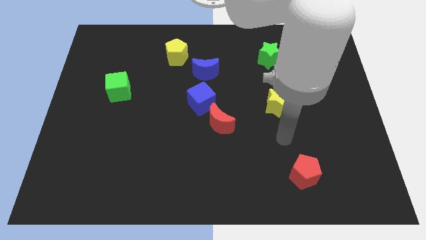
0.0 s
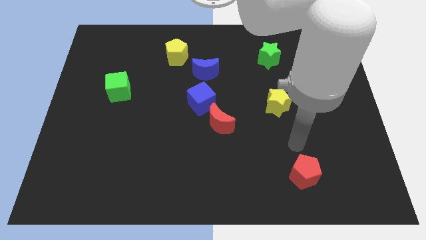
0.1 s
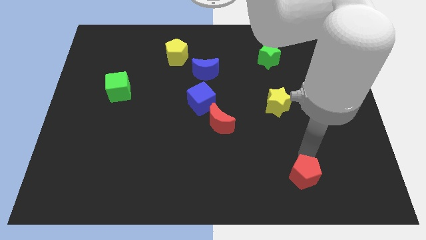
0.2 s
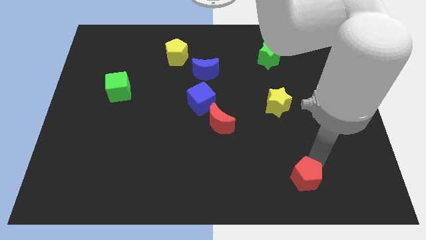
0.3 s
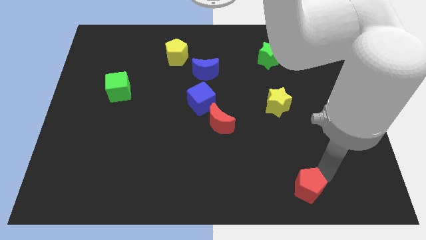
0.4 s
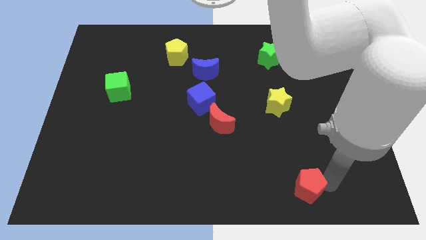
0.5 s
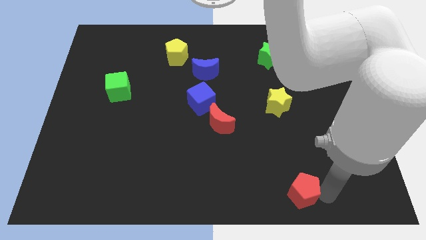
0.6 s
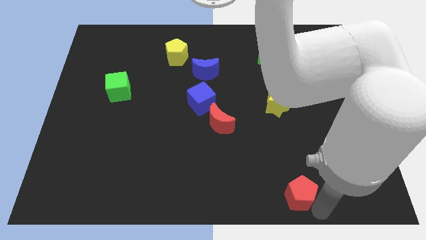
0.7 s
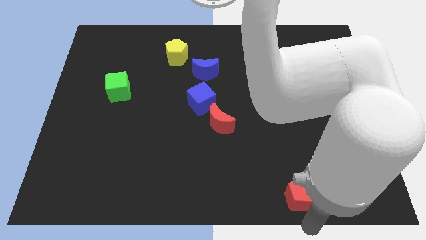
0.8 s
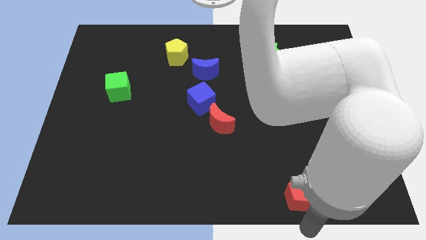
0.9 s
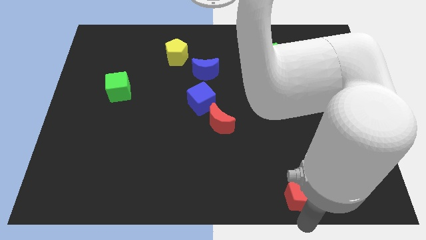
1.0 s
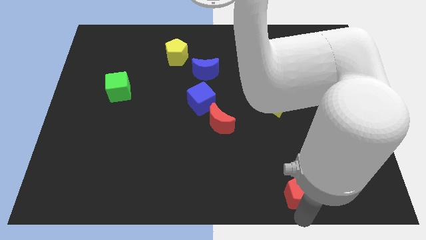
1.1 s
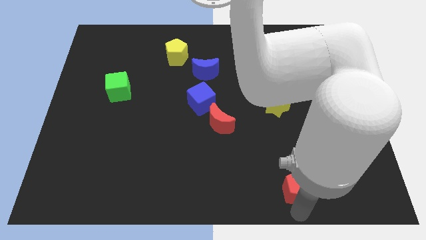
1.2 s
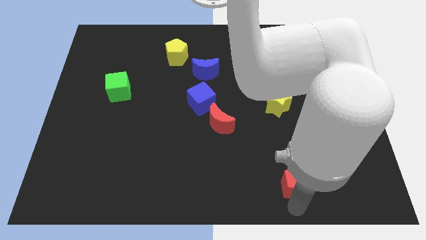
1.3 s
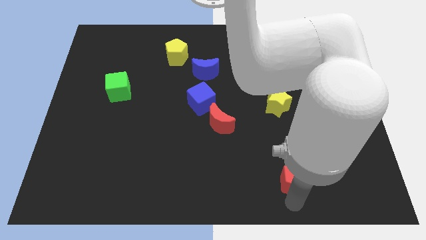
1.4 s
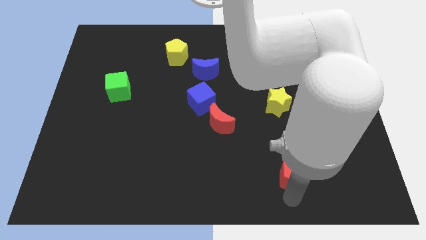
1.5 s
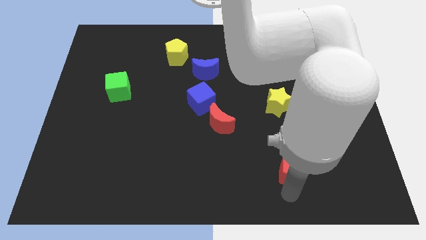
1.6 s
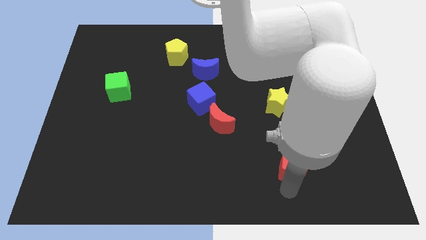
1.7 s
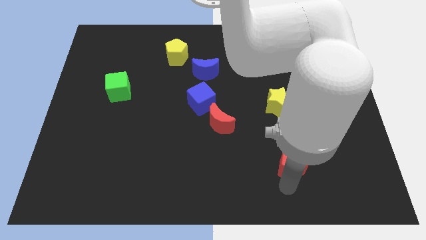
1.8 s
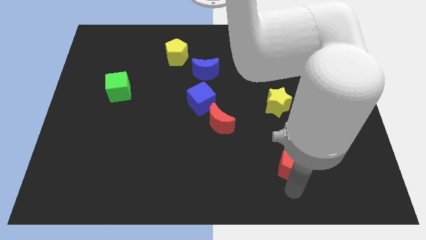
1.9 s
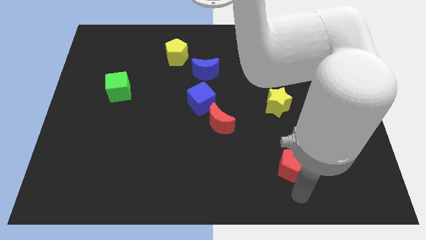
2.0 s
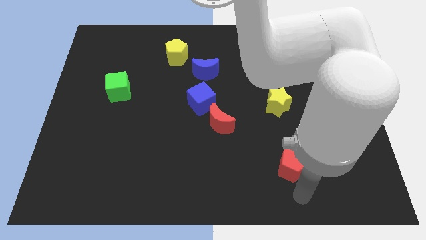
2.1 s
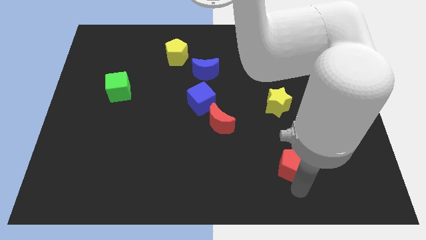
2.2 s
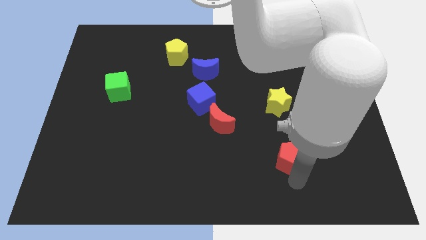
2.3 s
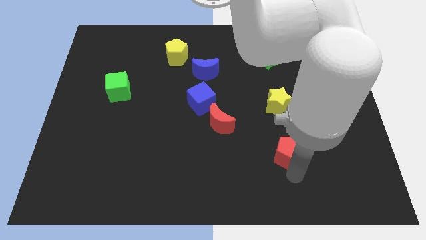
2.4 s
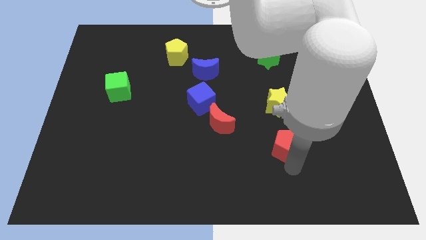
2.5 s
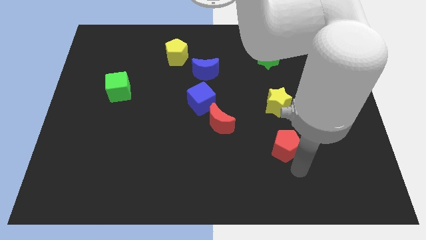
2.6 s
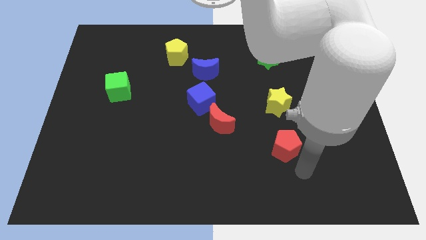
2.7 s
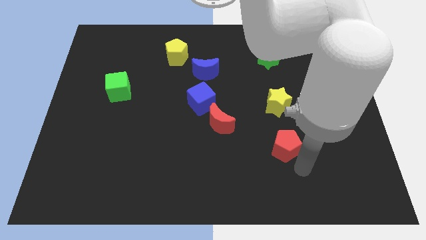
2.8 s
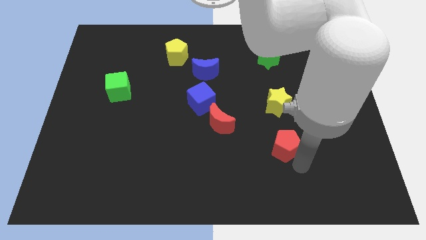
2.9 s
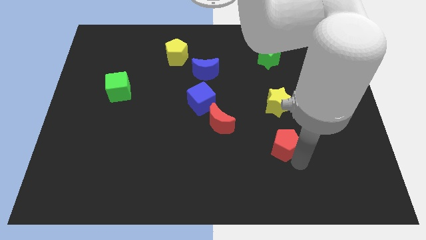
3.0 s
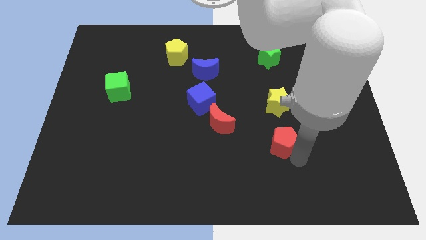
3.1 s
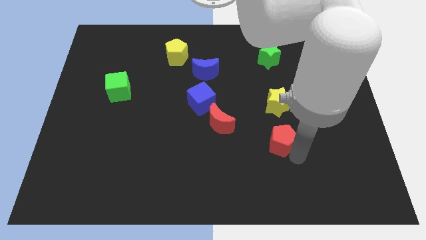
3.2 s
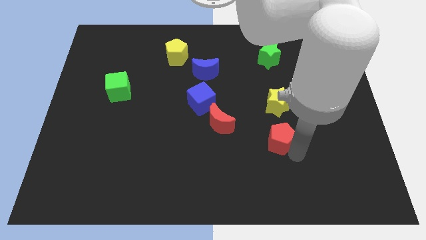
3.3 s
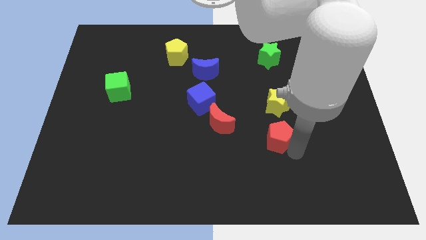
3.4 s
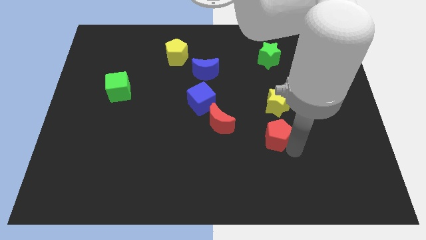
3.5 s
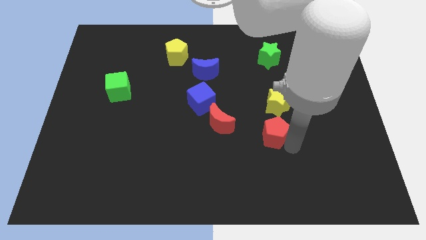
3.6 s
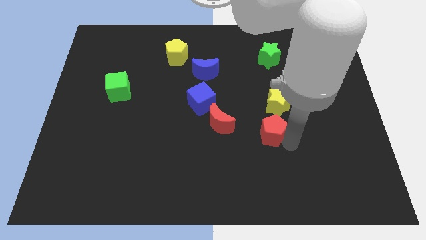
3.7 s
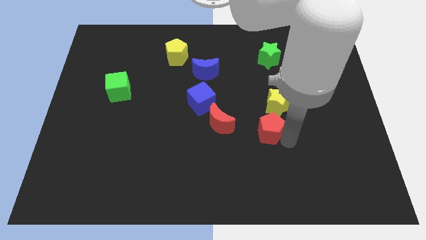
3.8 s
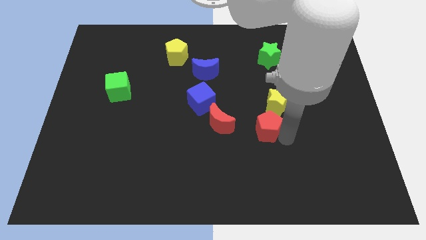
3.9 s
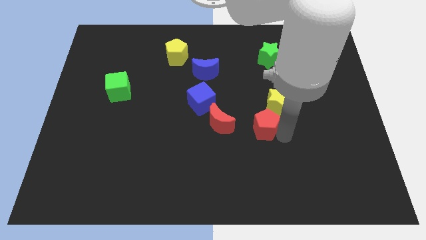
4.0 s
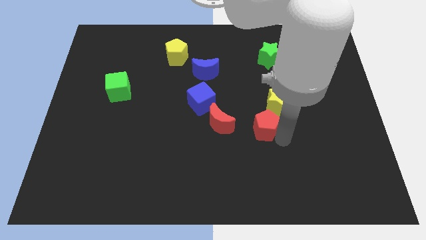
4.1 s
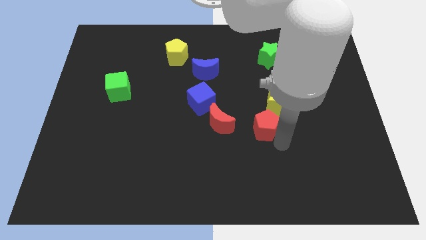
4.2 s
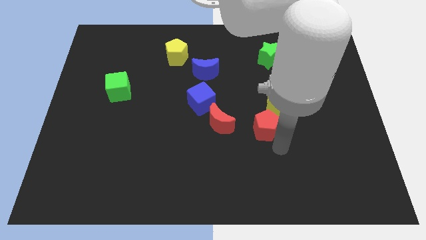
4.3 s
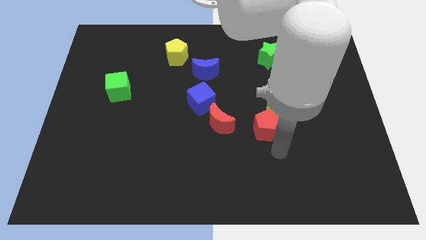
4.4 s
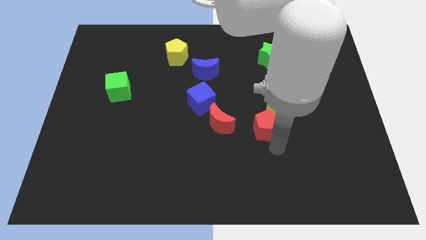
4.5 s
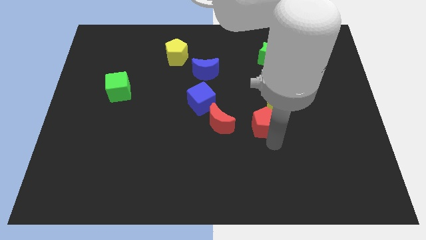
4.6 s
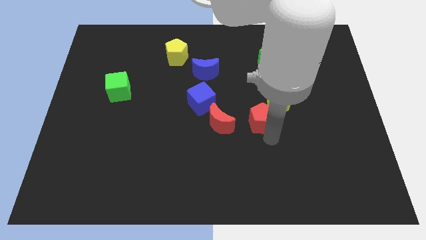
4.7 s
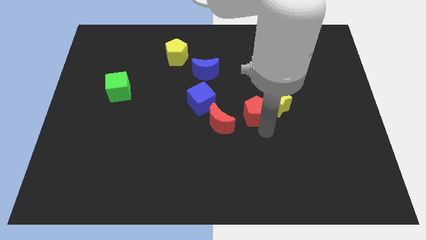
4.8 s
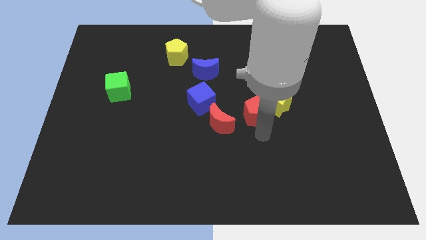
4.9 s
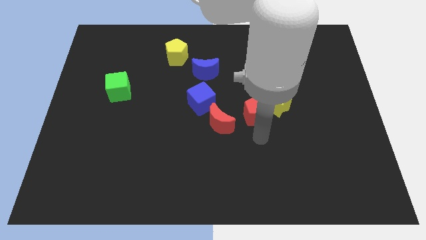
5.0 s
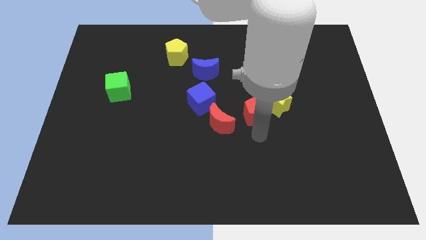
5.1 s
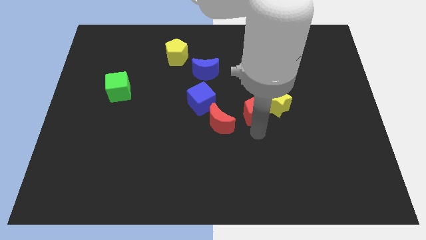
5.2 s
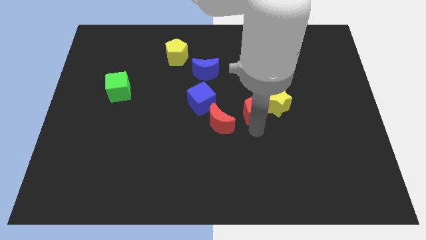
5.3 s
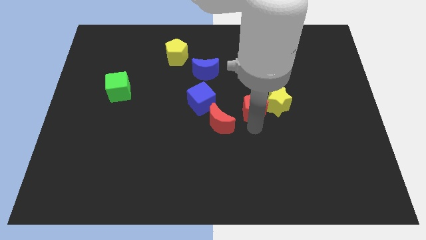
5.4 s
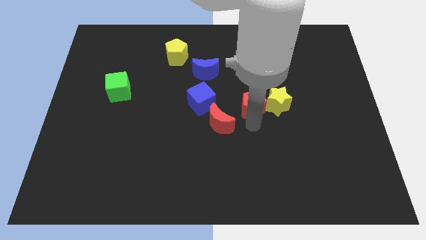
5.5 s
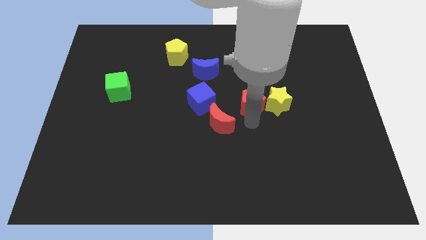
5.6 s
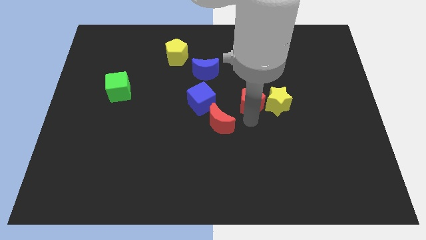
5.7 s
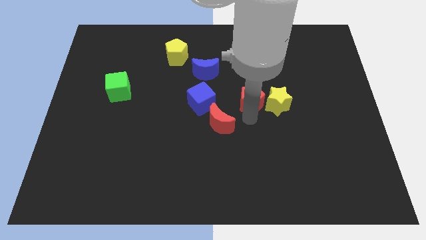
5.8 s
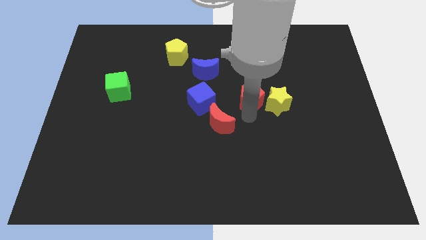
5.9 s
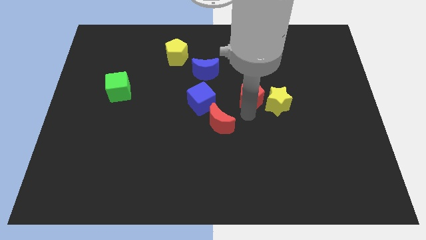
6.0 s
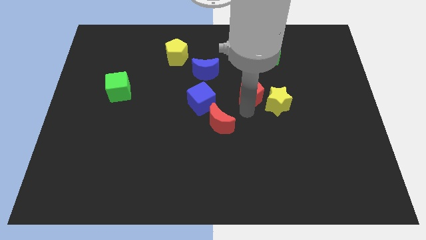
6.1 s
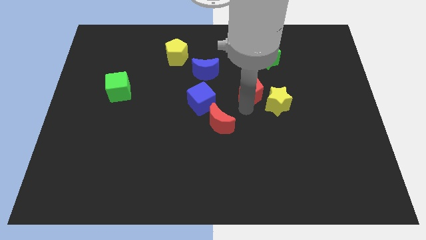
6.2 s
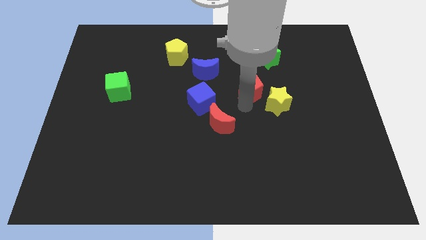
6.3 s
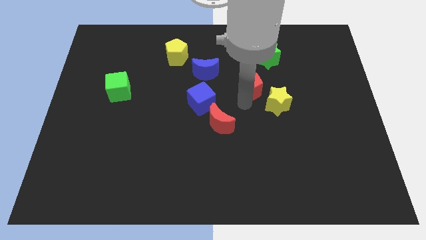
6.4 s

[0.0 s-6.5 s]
slide the red pentagon diagonally down and to the left of the green star

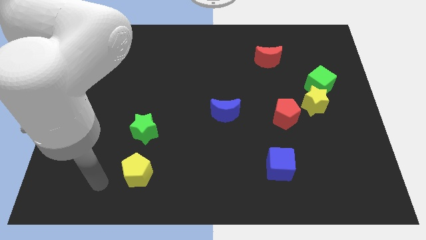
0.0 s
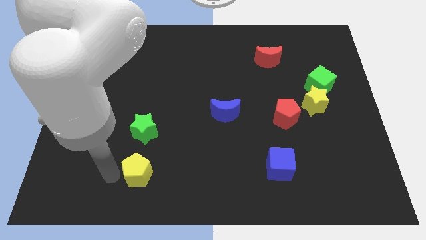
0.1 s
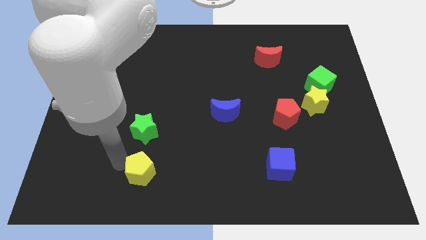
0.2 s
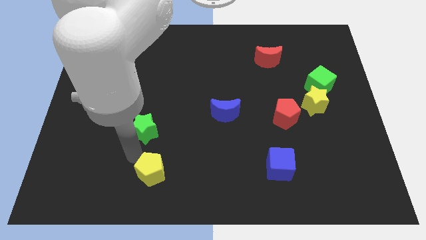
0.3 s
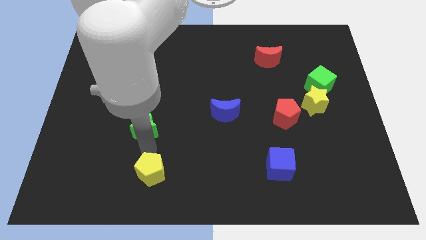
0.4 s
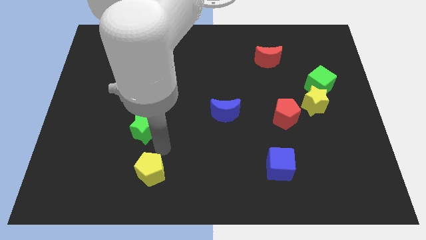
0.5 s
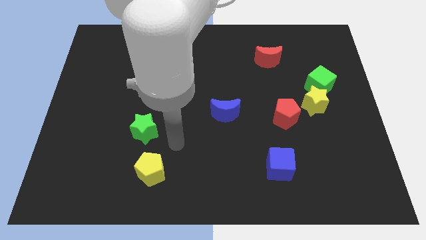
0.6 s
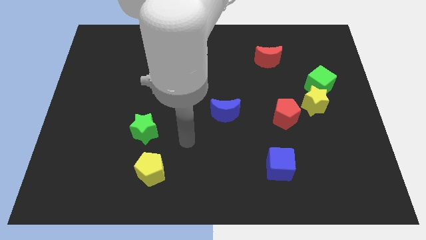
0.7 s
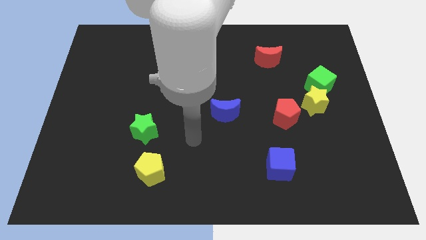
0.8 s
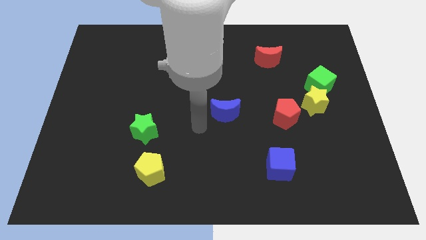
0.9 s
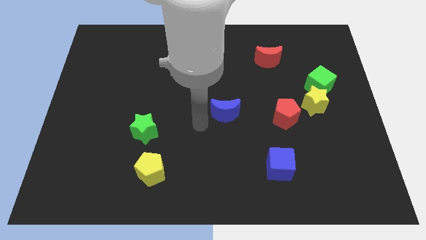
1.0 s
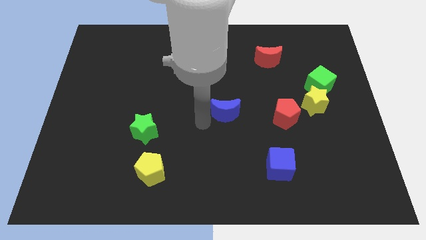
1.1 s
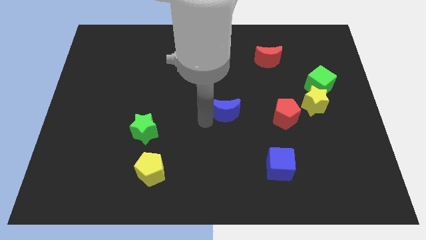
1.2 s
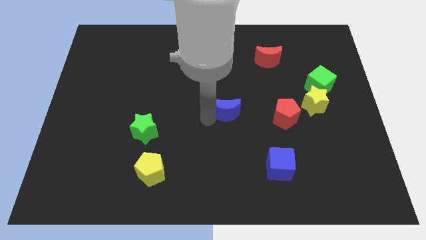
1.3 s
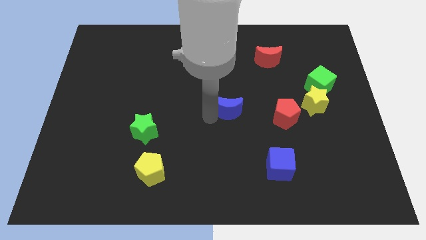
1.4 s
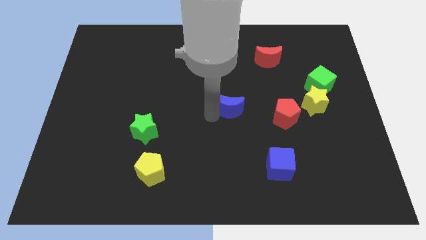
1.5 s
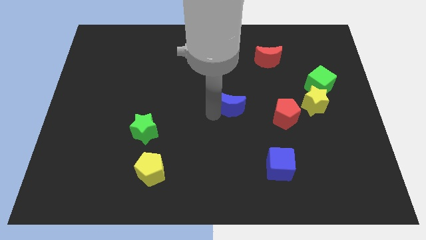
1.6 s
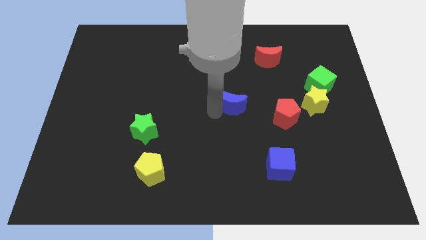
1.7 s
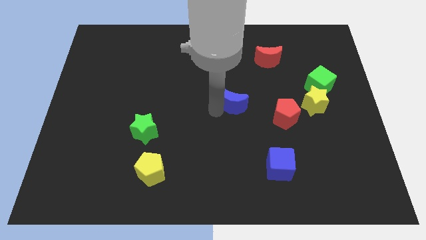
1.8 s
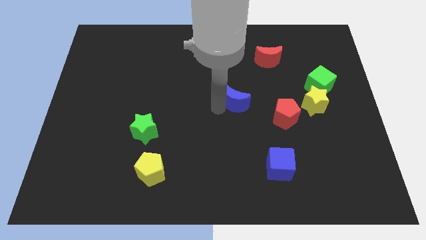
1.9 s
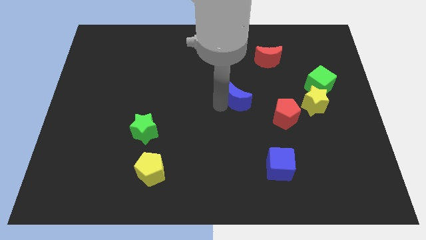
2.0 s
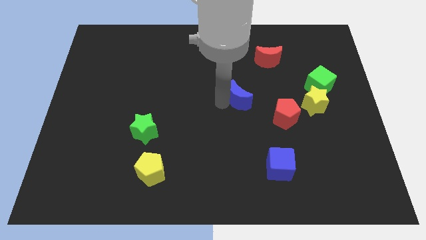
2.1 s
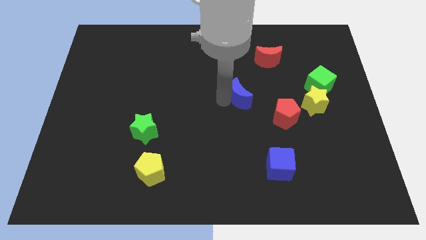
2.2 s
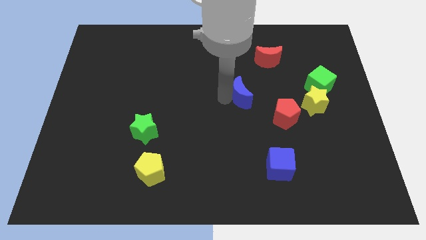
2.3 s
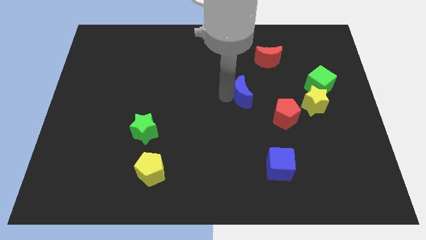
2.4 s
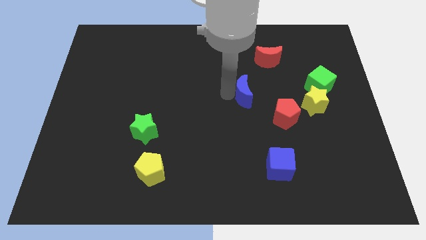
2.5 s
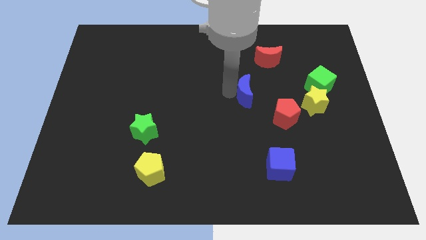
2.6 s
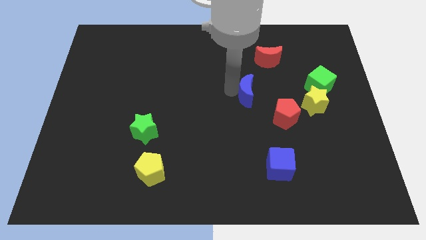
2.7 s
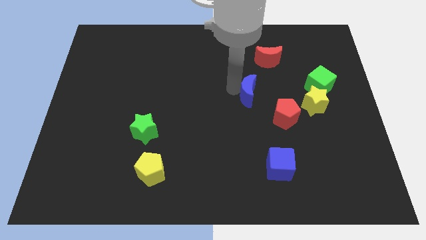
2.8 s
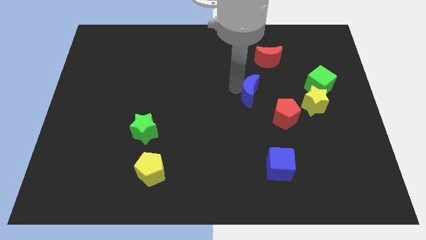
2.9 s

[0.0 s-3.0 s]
slide the blue moon to the left of the yellow star
